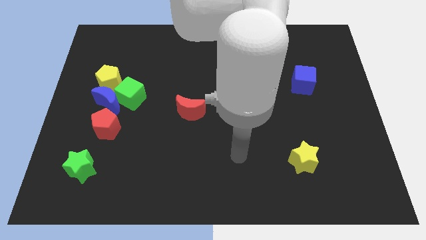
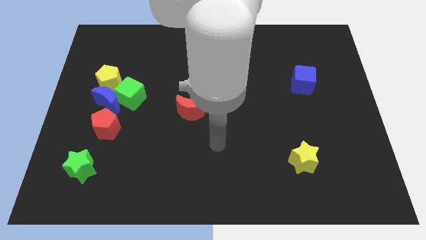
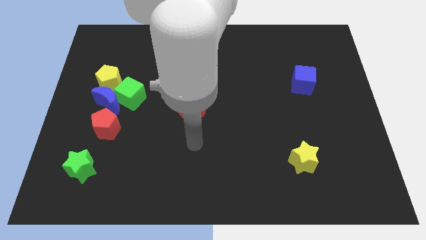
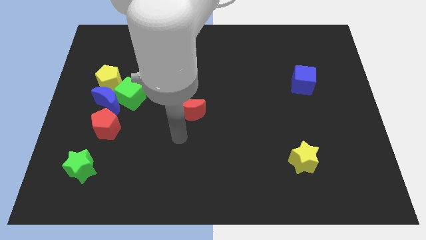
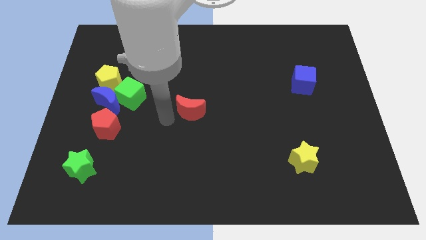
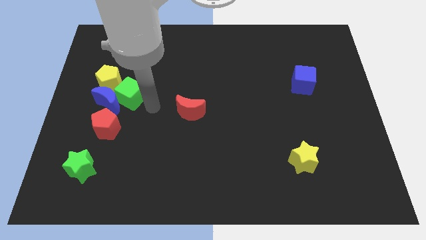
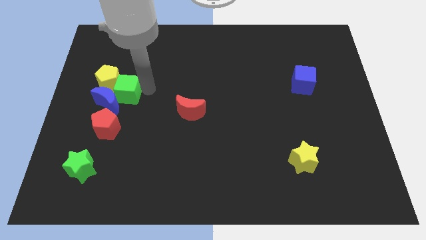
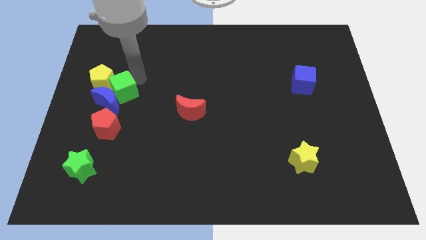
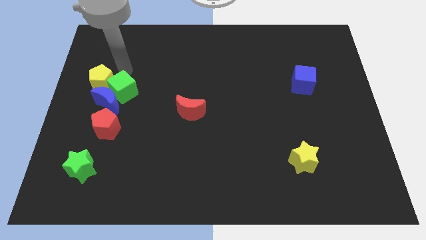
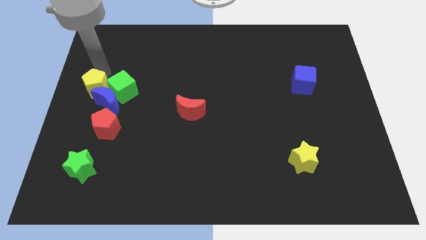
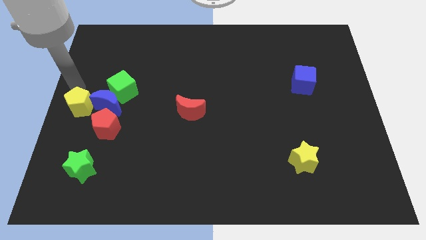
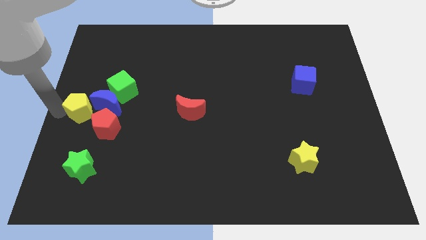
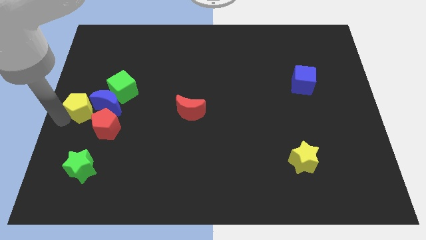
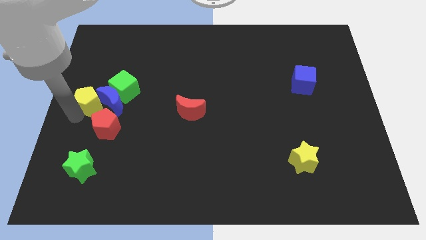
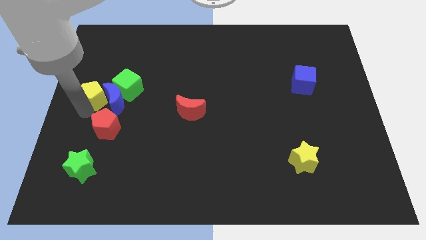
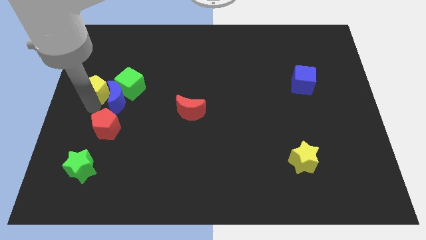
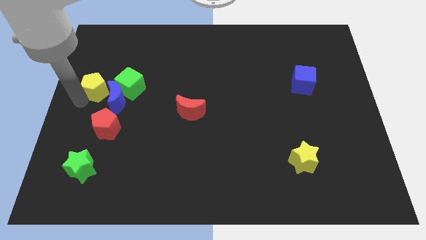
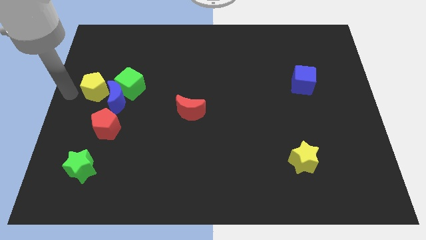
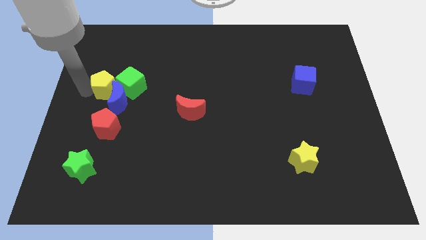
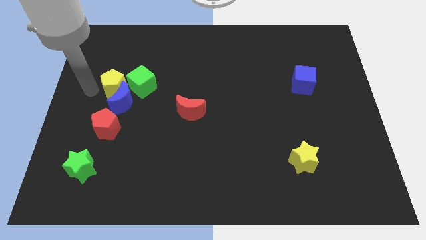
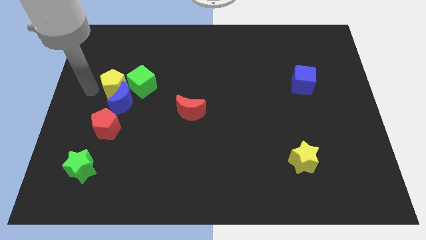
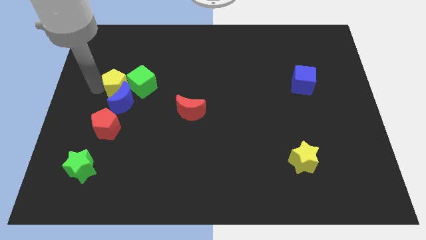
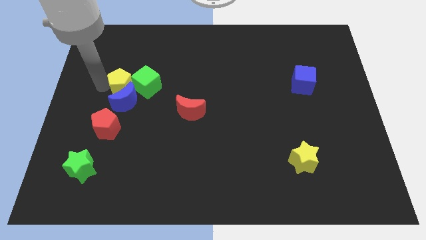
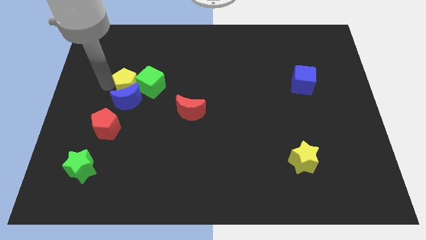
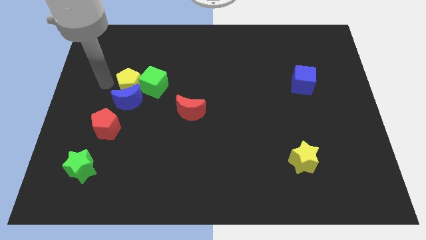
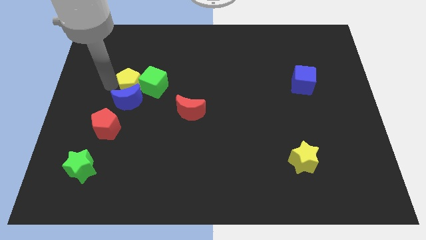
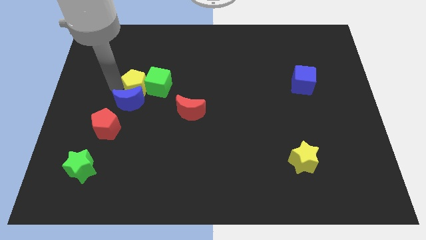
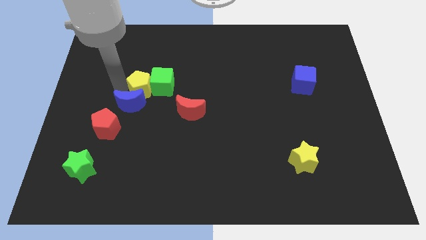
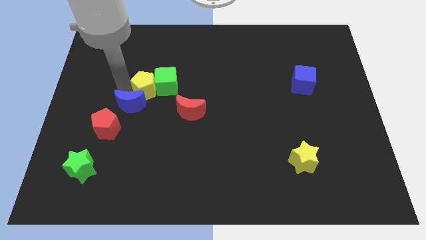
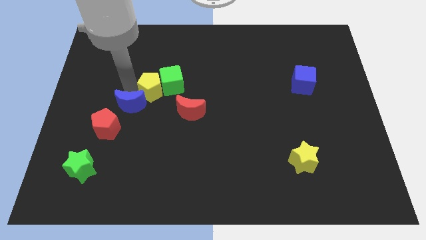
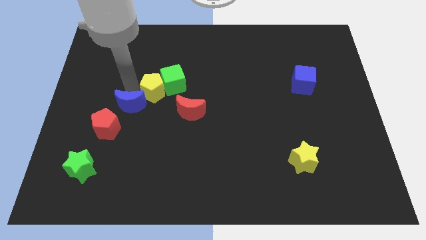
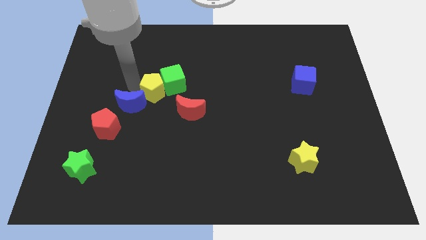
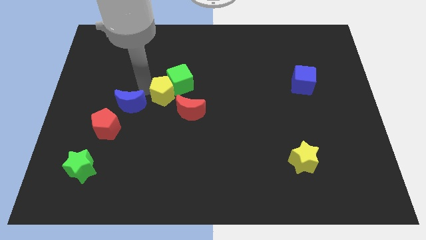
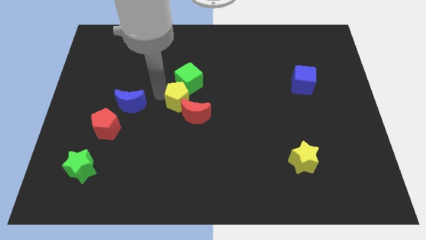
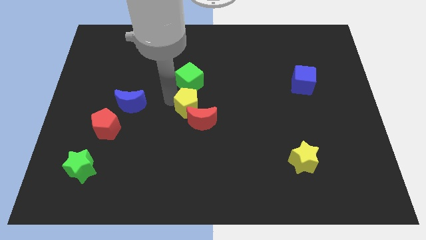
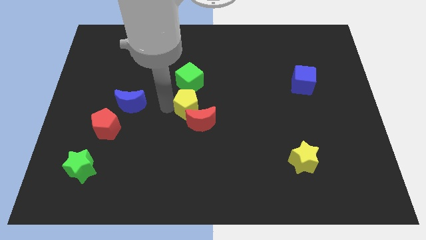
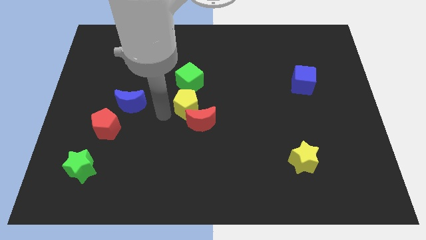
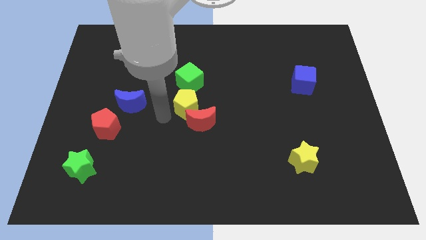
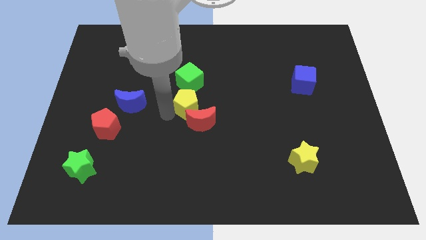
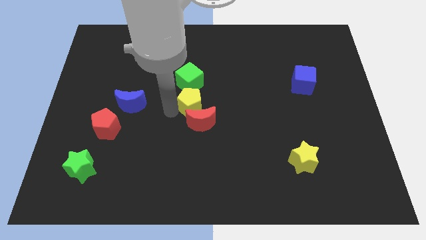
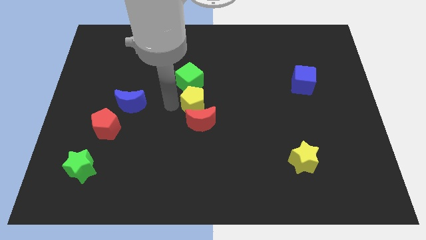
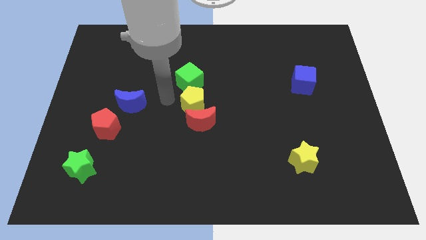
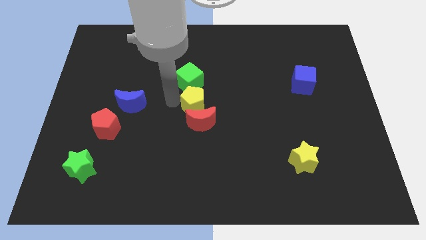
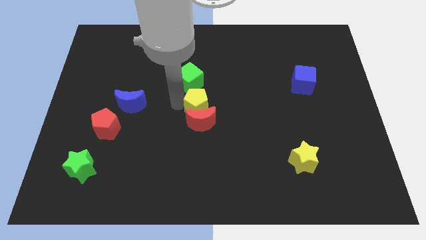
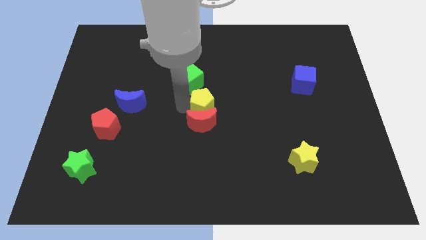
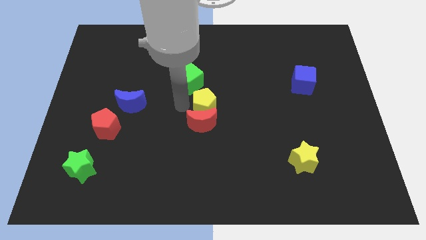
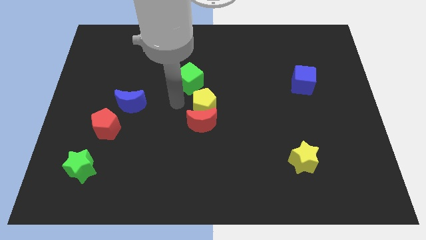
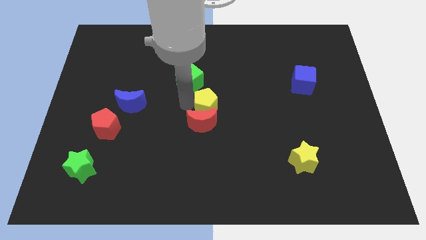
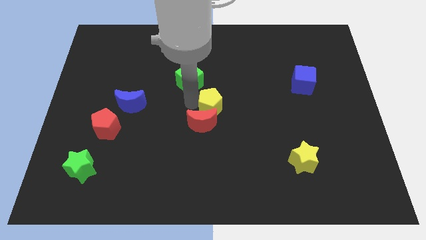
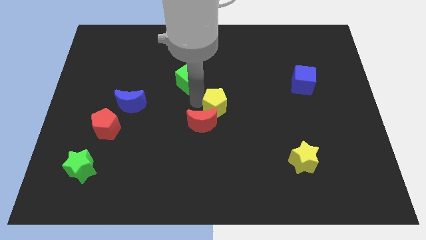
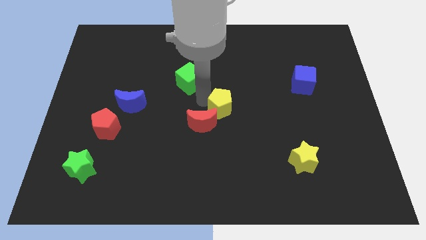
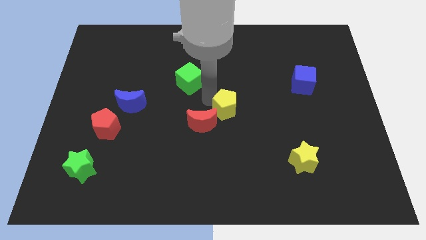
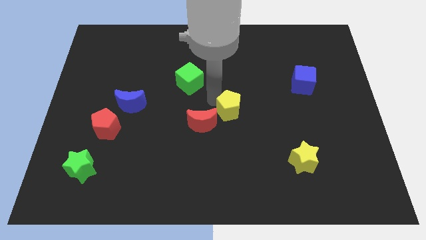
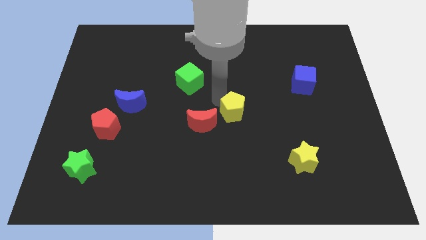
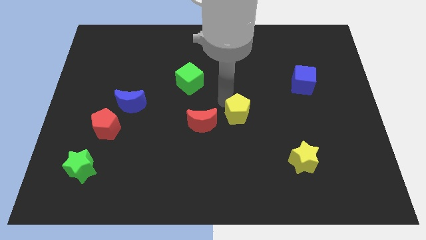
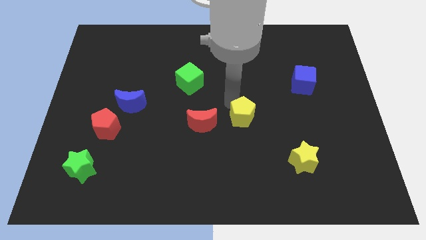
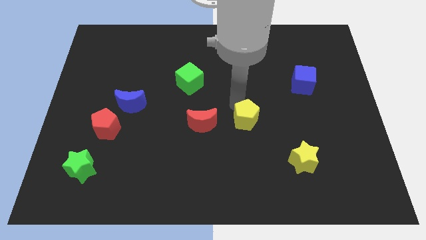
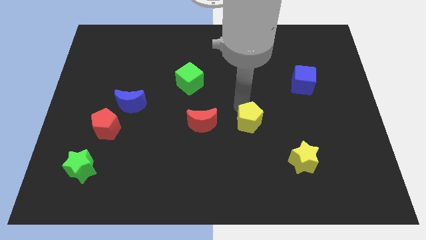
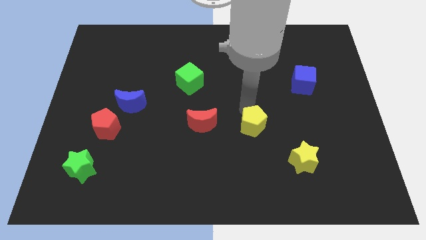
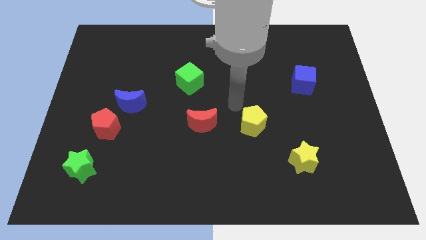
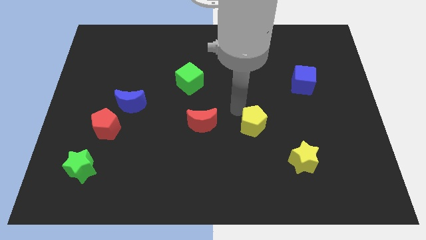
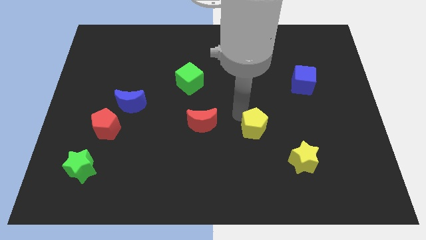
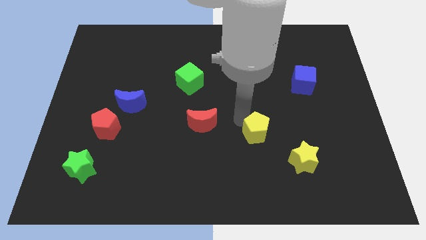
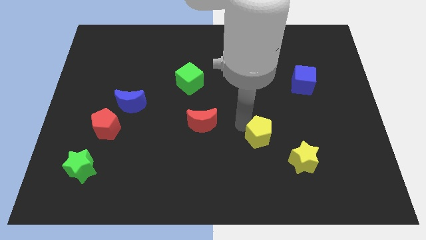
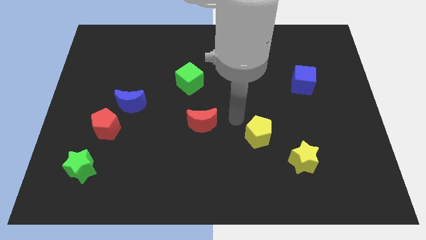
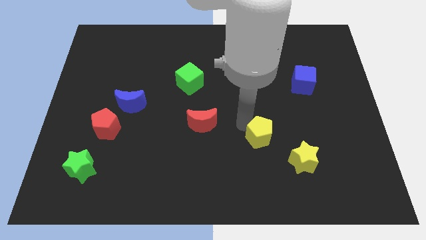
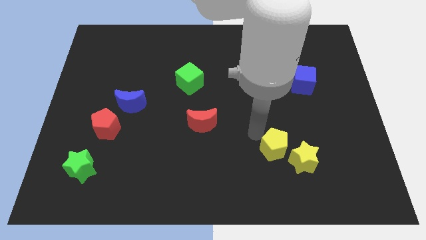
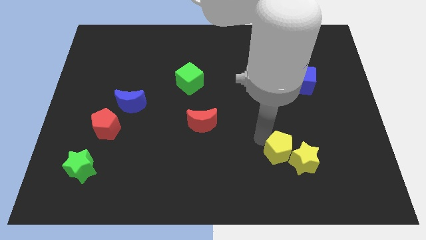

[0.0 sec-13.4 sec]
push the yellow pentagon towards the yellow star
